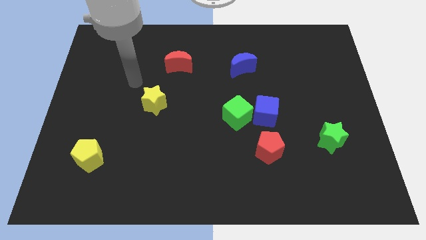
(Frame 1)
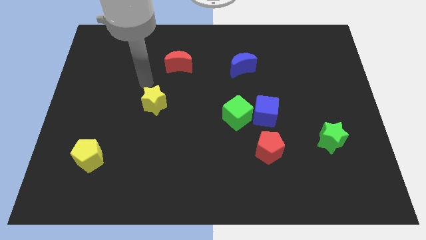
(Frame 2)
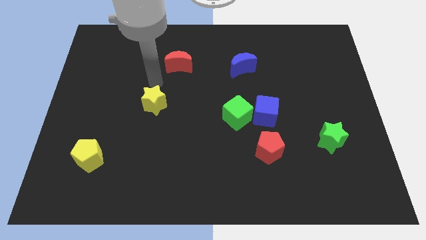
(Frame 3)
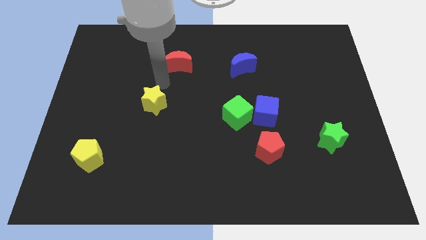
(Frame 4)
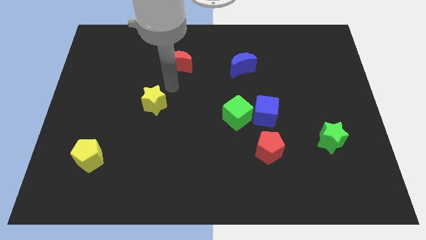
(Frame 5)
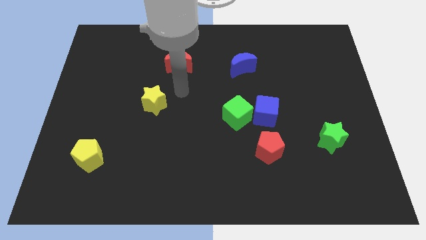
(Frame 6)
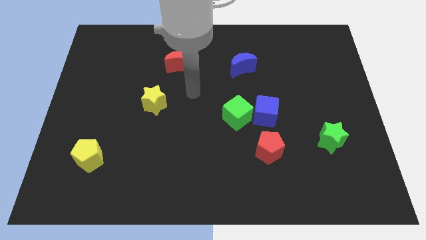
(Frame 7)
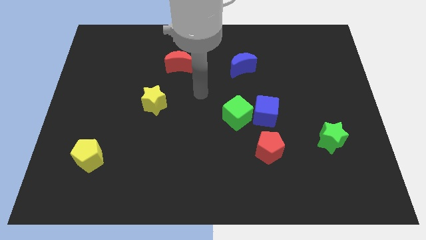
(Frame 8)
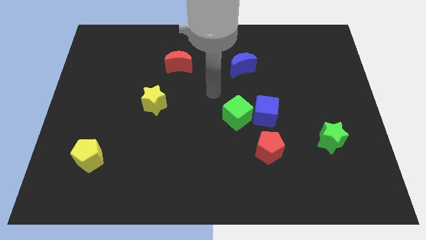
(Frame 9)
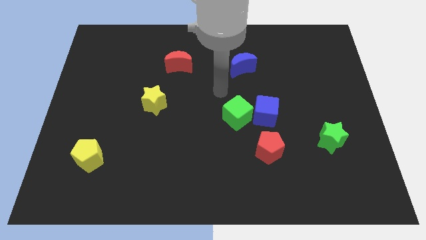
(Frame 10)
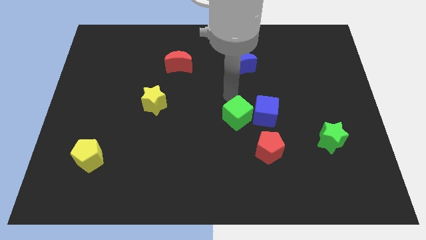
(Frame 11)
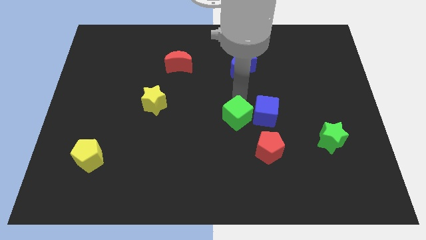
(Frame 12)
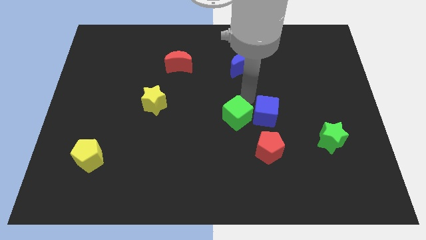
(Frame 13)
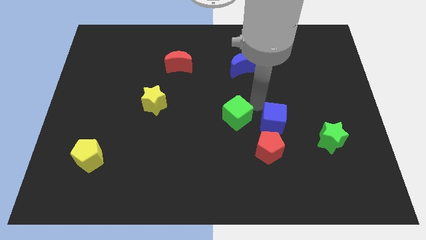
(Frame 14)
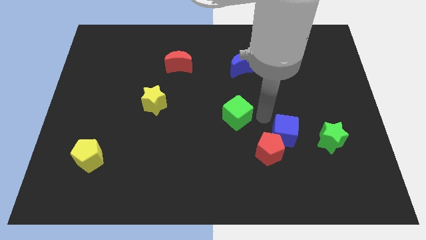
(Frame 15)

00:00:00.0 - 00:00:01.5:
separate the green cube from the blue cube

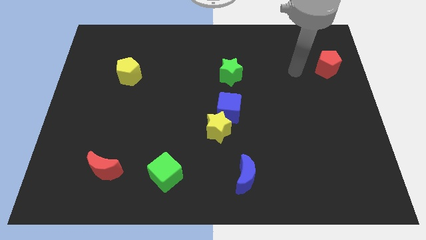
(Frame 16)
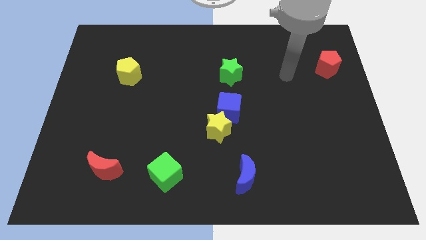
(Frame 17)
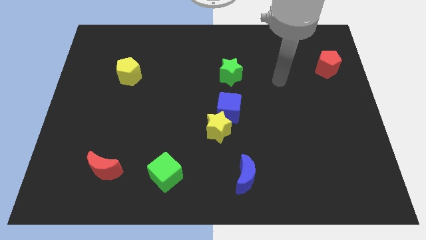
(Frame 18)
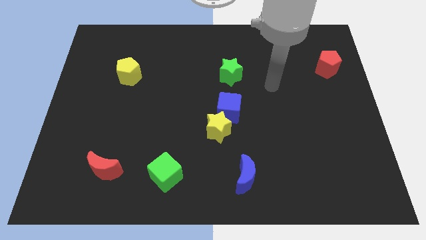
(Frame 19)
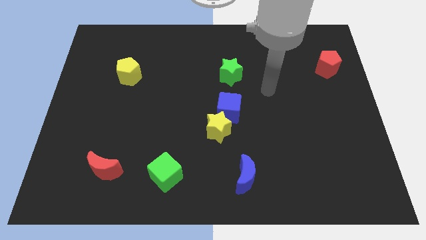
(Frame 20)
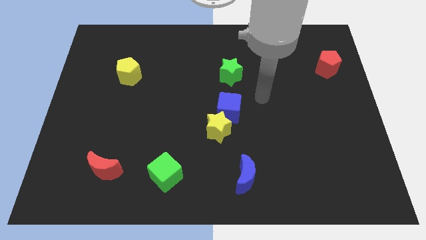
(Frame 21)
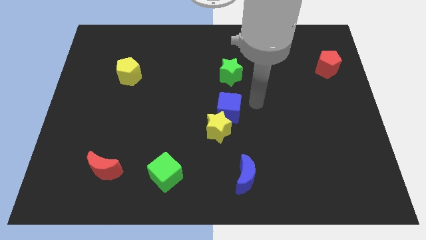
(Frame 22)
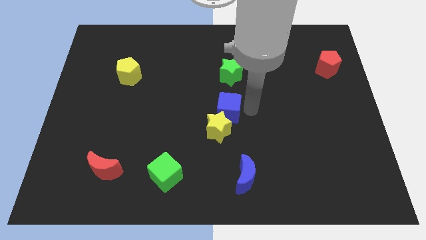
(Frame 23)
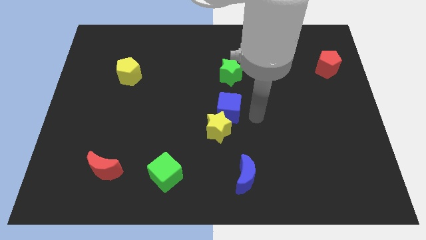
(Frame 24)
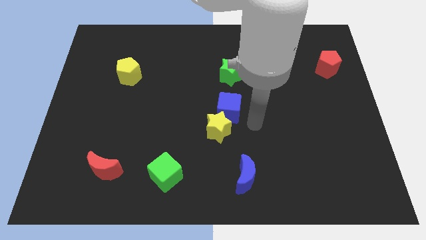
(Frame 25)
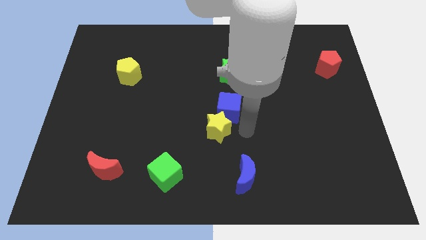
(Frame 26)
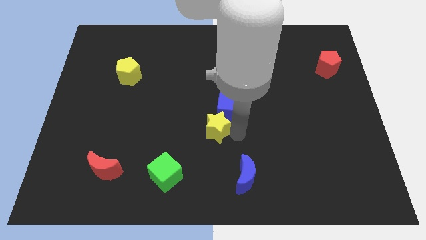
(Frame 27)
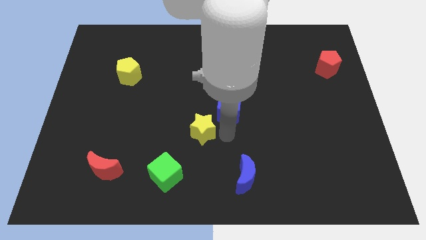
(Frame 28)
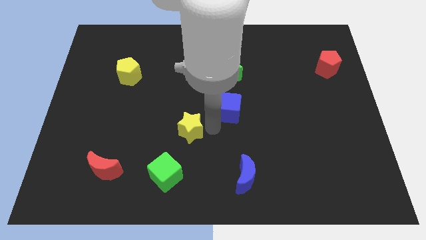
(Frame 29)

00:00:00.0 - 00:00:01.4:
pull the blue cube apart from the yellow star

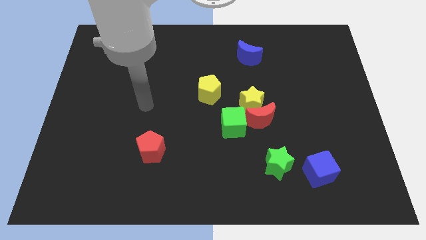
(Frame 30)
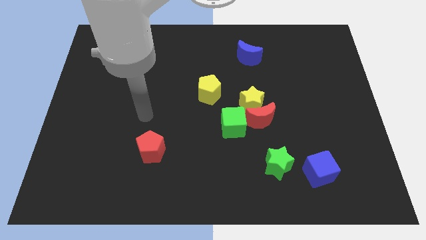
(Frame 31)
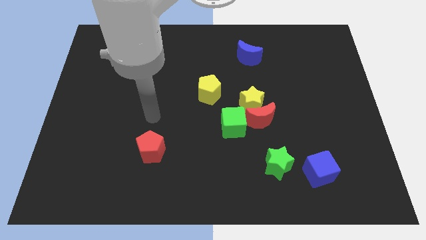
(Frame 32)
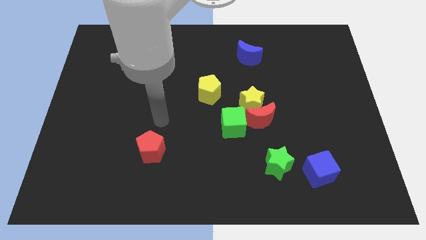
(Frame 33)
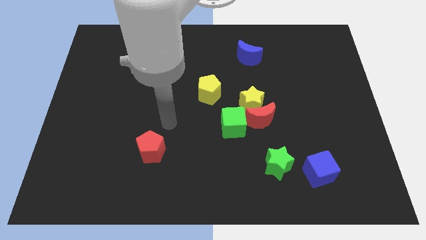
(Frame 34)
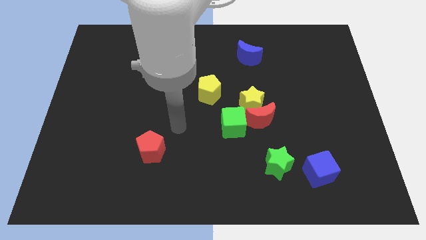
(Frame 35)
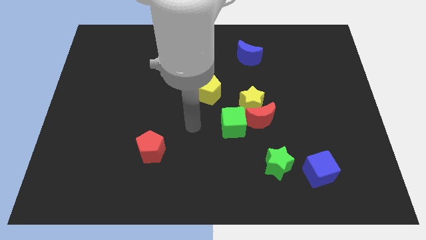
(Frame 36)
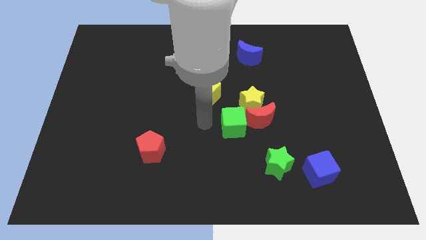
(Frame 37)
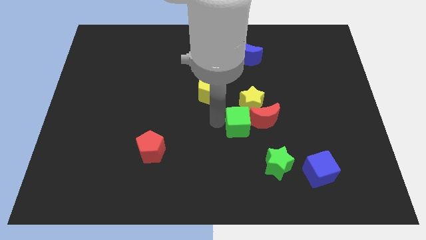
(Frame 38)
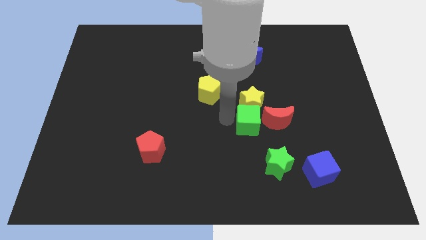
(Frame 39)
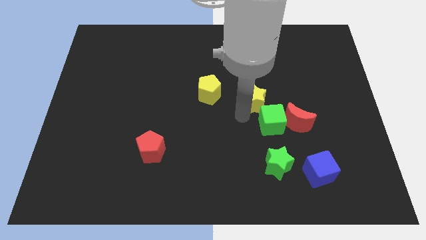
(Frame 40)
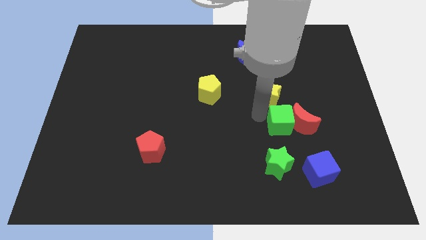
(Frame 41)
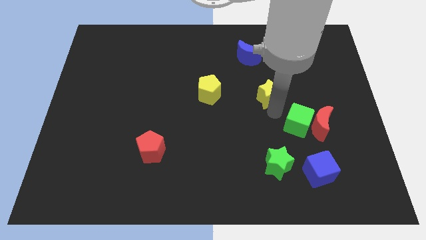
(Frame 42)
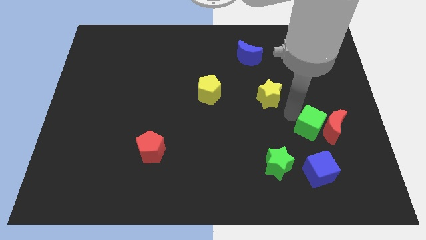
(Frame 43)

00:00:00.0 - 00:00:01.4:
separate the red moon from the yellow star and green cube

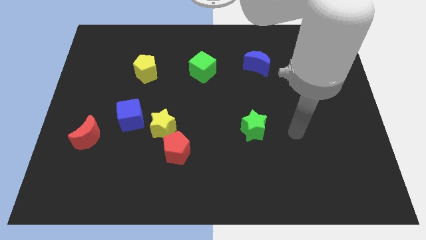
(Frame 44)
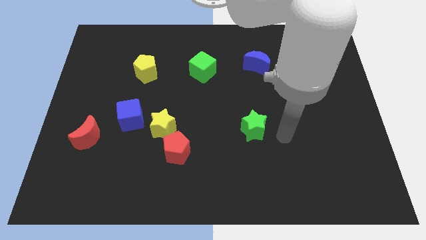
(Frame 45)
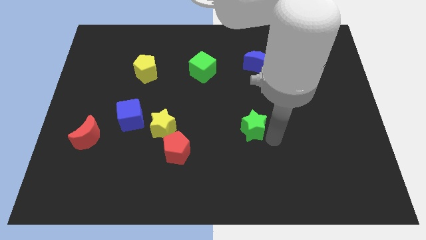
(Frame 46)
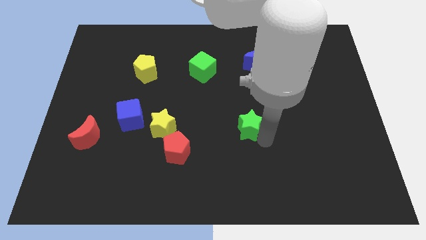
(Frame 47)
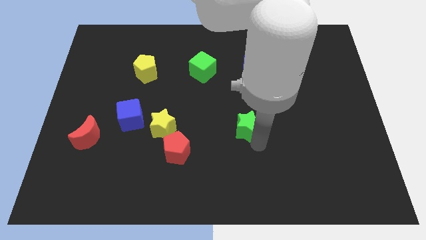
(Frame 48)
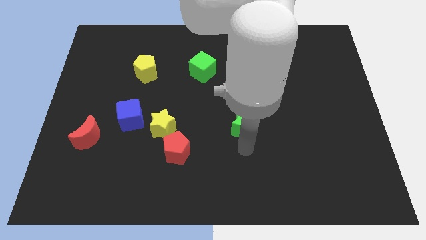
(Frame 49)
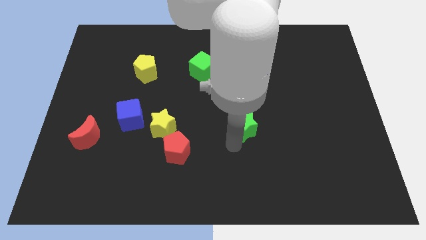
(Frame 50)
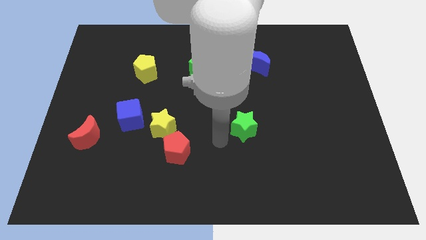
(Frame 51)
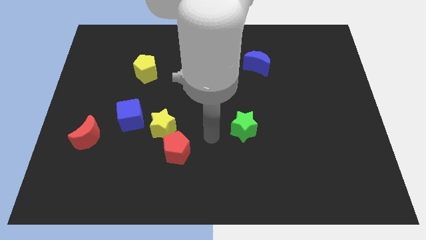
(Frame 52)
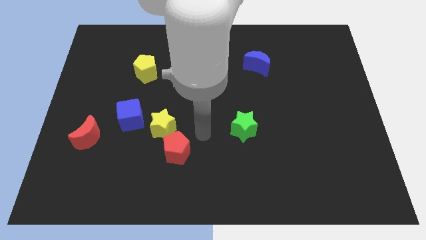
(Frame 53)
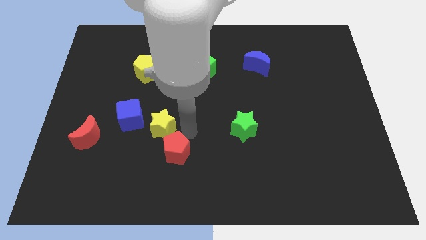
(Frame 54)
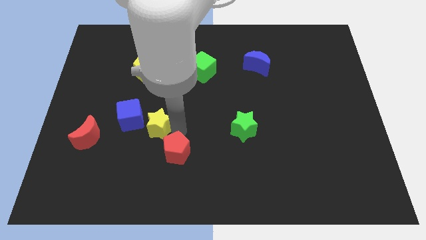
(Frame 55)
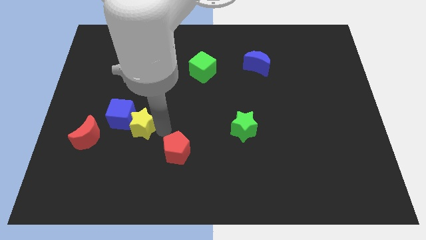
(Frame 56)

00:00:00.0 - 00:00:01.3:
pull the red pentagon apart from the yellow star

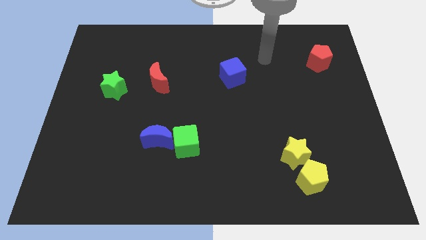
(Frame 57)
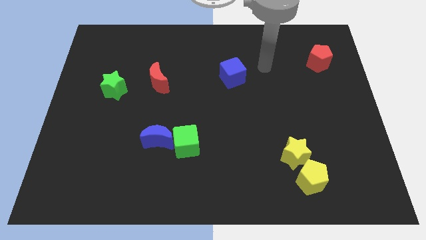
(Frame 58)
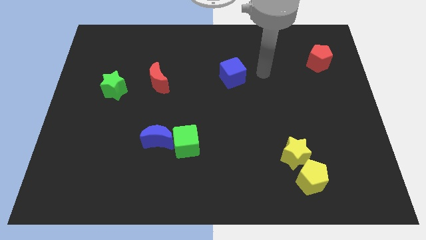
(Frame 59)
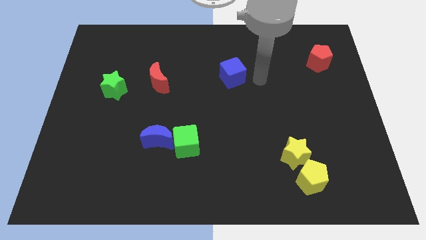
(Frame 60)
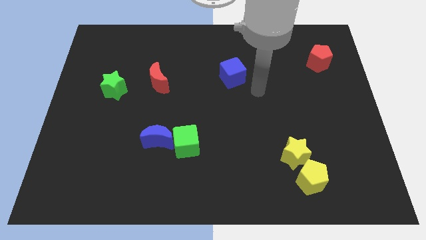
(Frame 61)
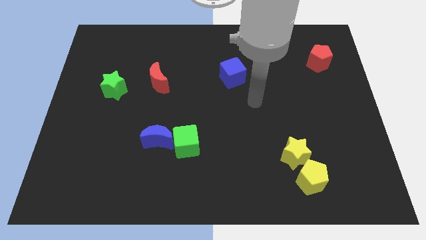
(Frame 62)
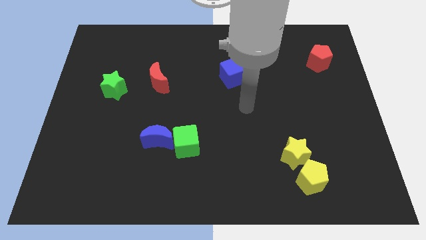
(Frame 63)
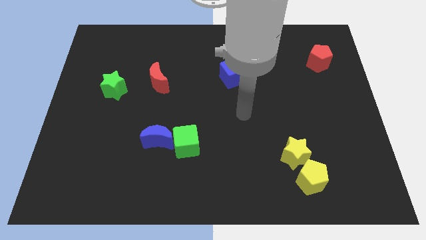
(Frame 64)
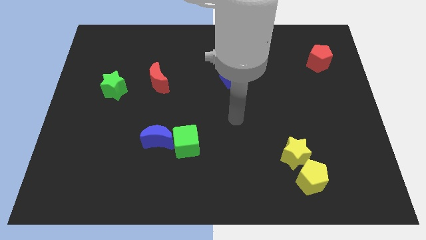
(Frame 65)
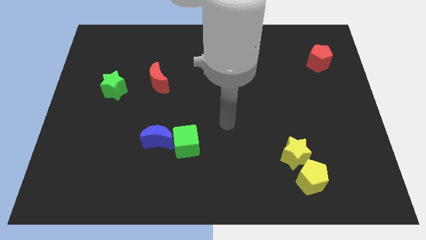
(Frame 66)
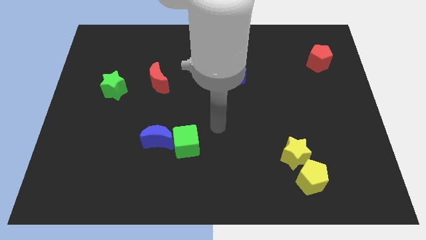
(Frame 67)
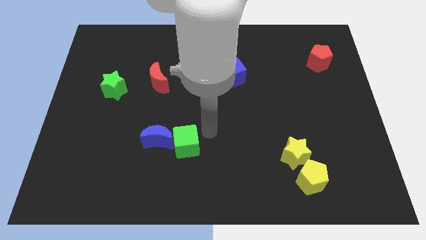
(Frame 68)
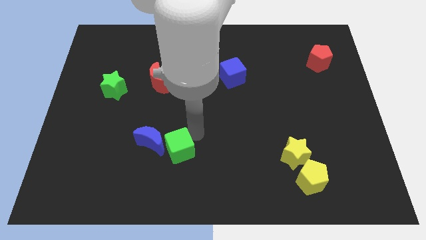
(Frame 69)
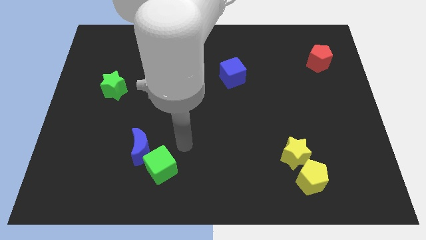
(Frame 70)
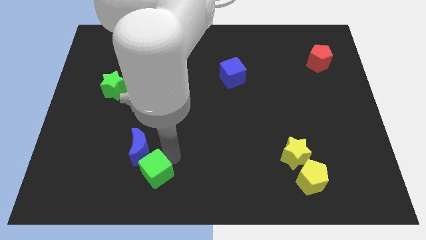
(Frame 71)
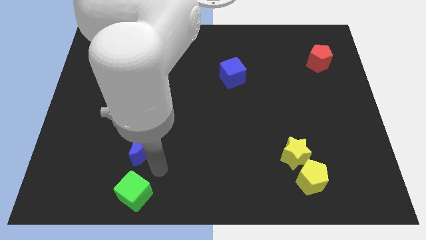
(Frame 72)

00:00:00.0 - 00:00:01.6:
pull the blue moon apart from the green cube

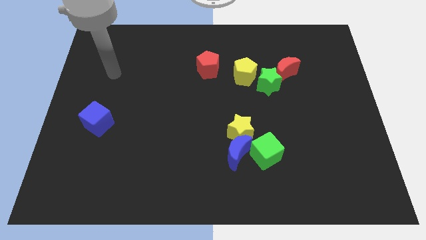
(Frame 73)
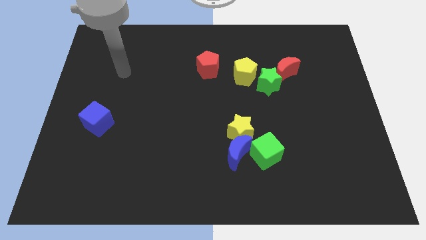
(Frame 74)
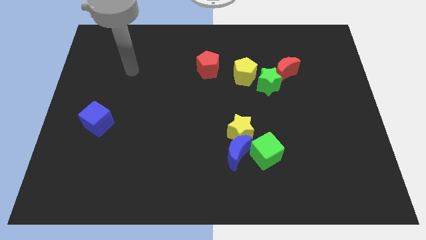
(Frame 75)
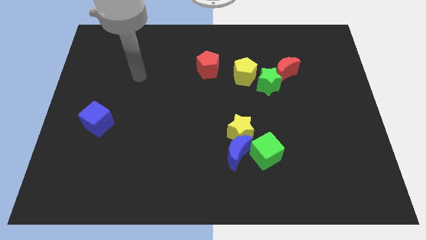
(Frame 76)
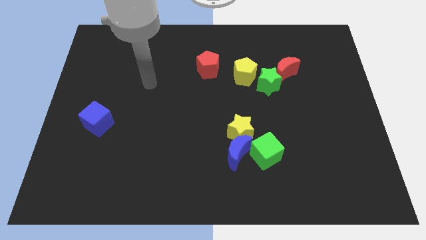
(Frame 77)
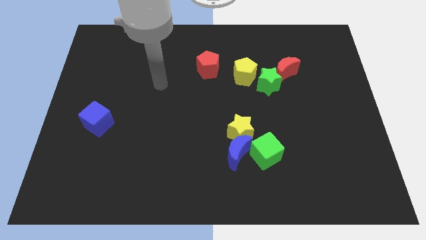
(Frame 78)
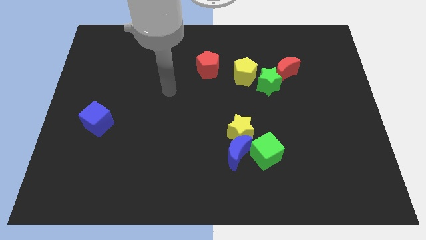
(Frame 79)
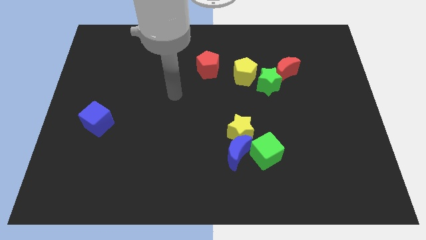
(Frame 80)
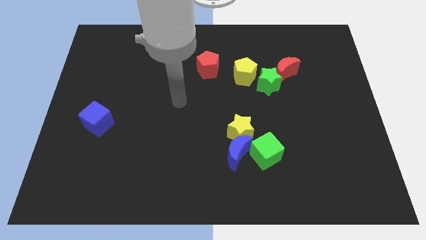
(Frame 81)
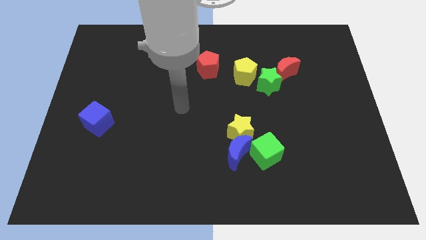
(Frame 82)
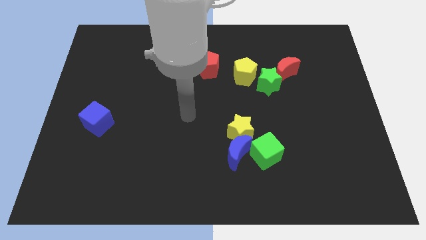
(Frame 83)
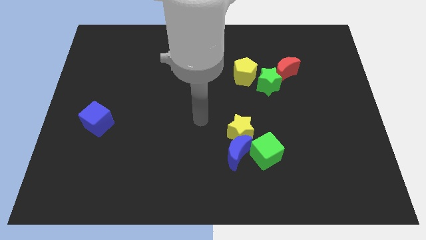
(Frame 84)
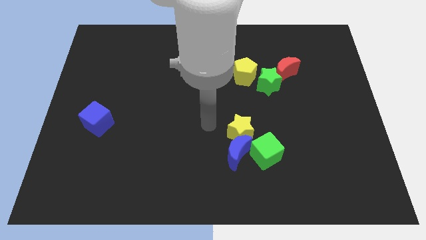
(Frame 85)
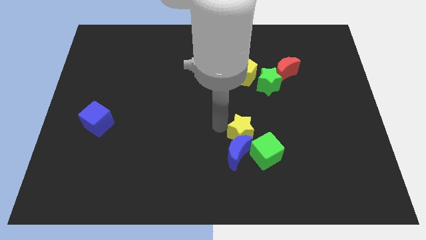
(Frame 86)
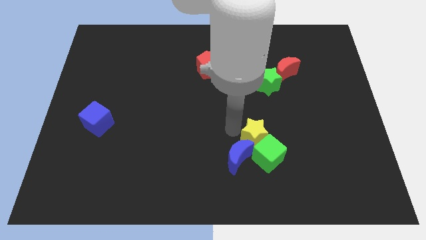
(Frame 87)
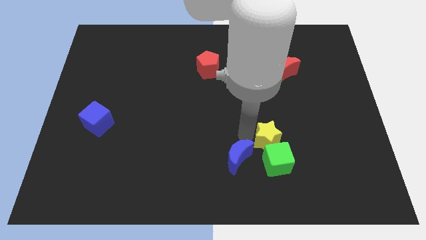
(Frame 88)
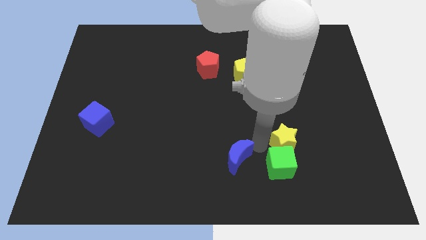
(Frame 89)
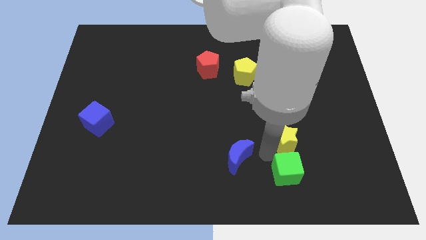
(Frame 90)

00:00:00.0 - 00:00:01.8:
separate the blue moon from the yellow star and green cube

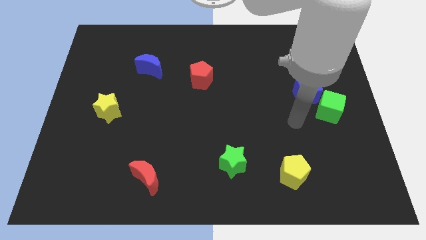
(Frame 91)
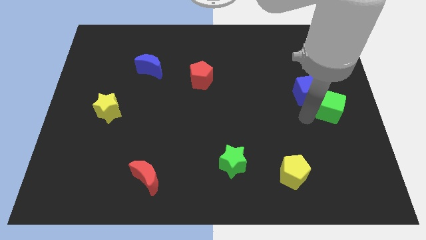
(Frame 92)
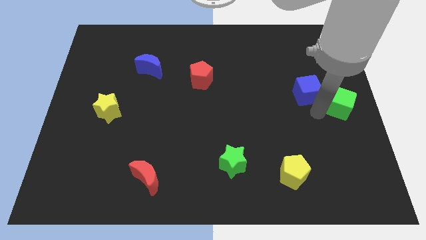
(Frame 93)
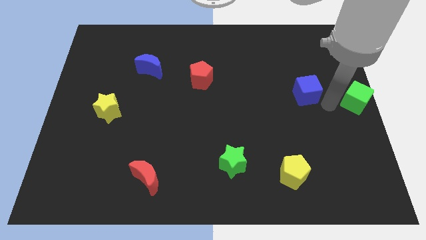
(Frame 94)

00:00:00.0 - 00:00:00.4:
pull the blue cube apart from the green cube
